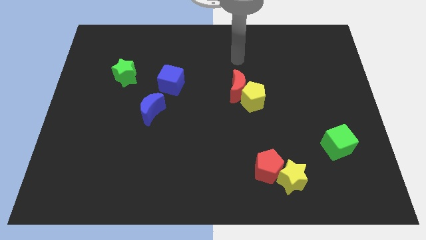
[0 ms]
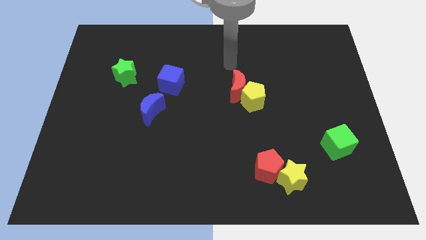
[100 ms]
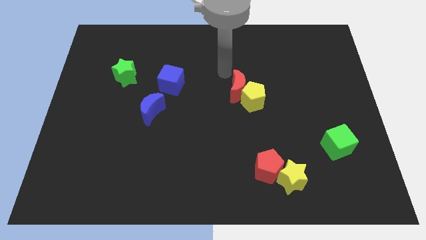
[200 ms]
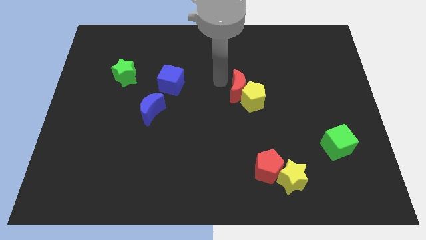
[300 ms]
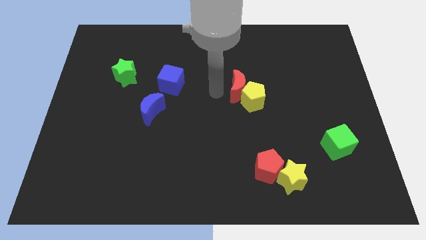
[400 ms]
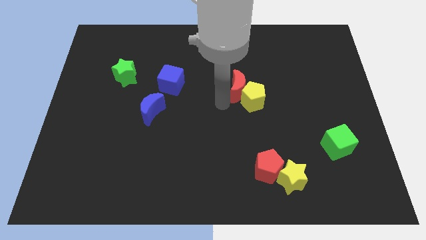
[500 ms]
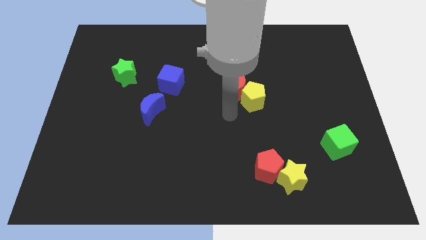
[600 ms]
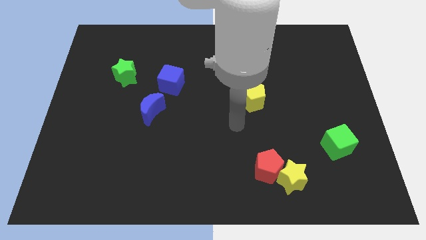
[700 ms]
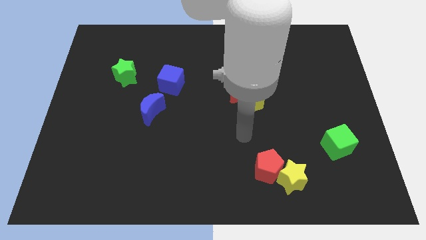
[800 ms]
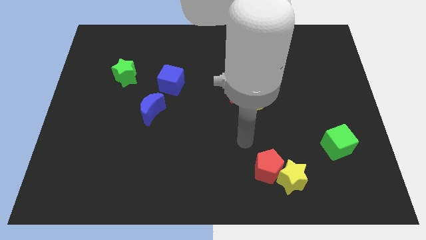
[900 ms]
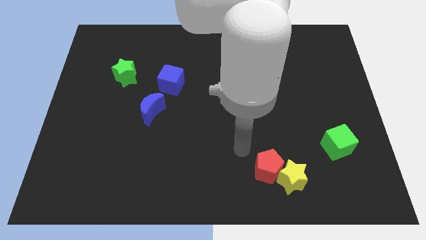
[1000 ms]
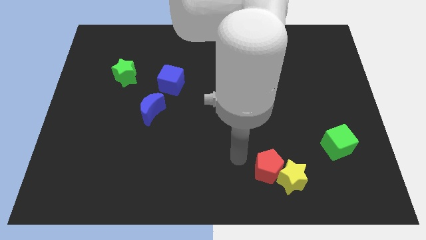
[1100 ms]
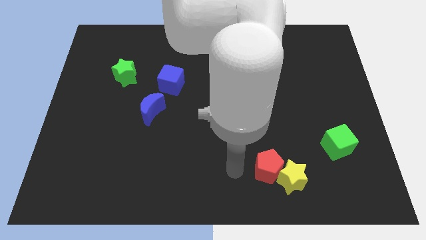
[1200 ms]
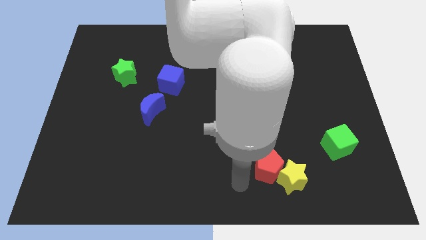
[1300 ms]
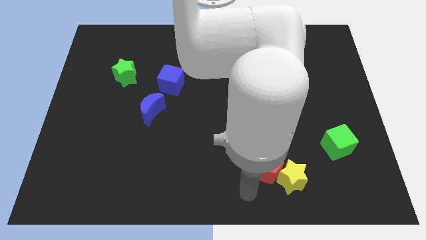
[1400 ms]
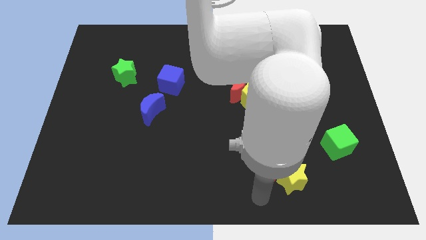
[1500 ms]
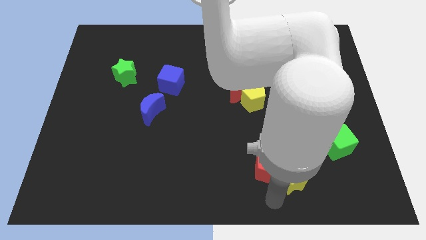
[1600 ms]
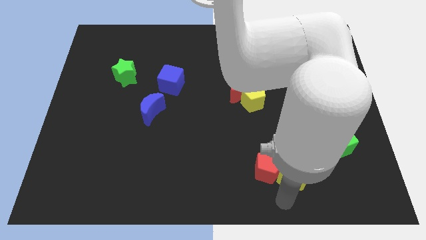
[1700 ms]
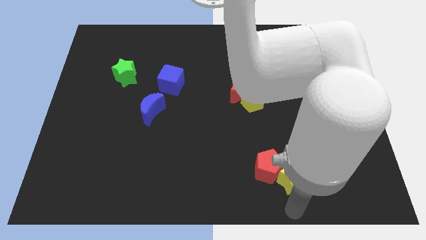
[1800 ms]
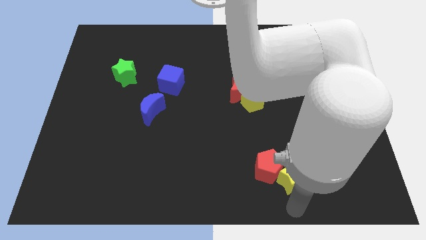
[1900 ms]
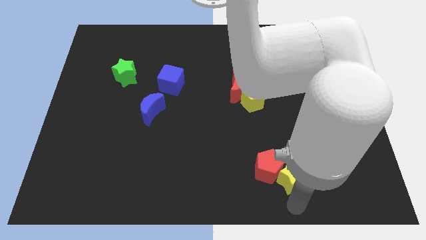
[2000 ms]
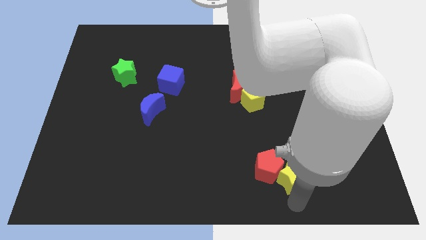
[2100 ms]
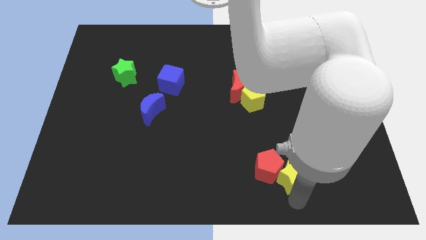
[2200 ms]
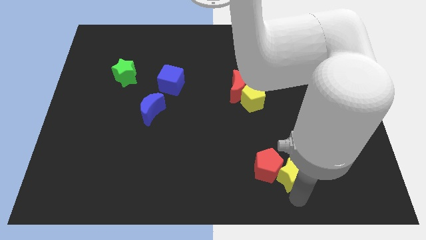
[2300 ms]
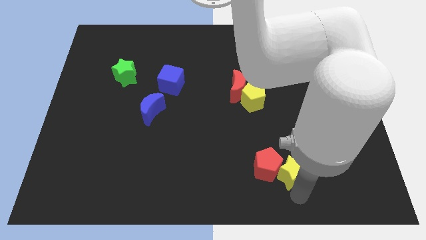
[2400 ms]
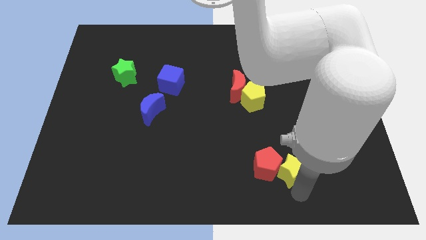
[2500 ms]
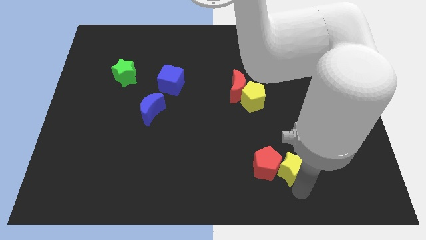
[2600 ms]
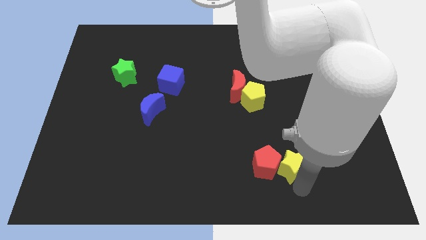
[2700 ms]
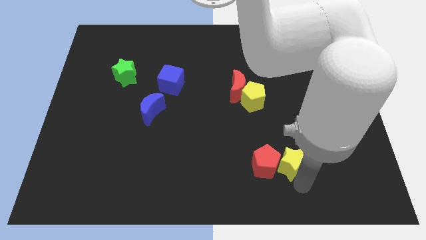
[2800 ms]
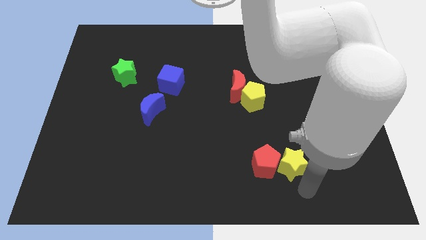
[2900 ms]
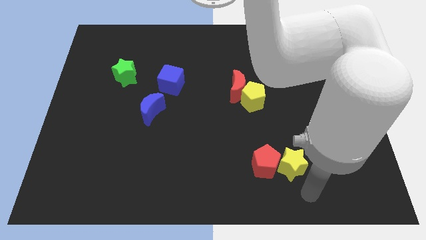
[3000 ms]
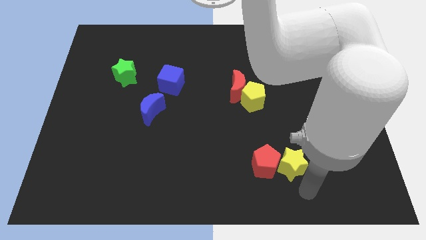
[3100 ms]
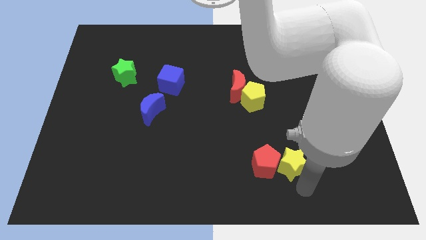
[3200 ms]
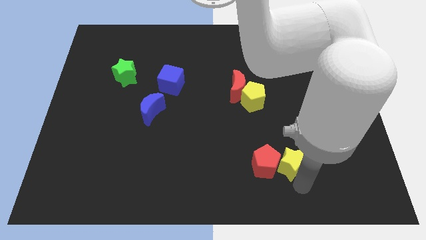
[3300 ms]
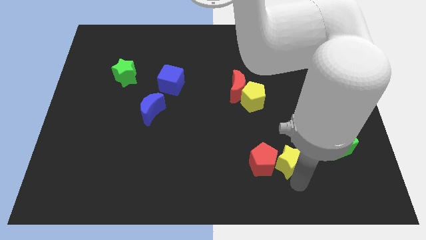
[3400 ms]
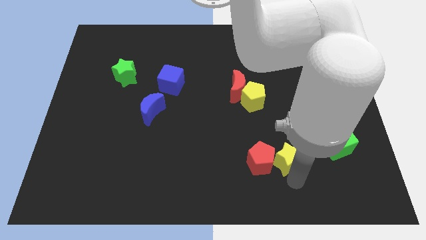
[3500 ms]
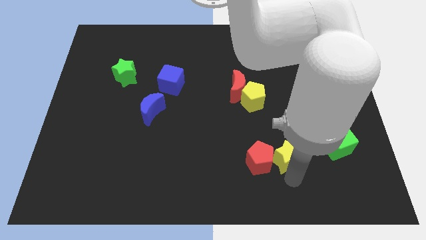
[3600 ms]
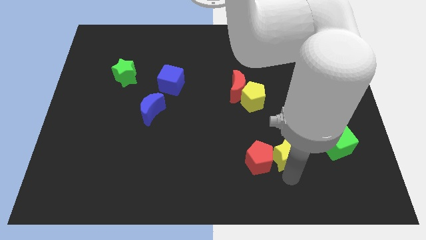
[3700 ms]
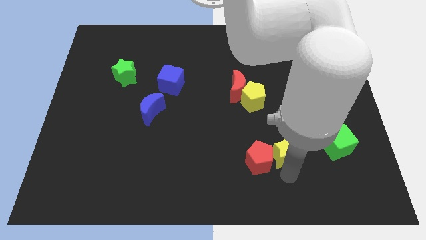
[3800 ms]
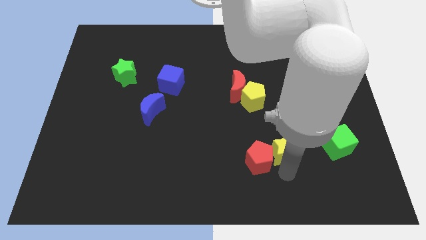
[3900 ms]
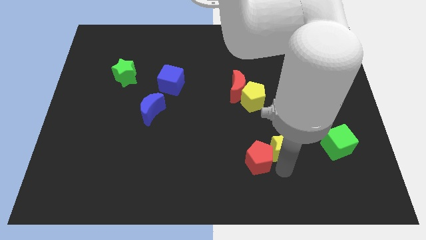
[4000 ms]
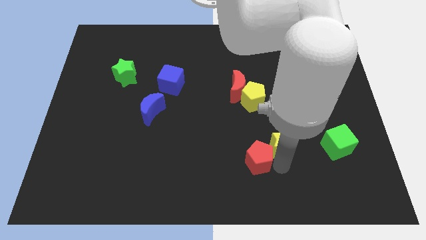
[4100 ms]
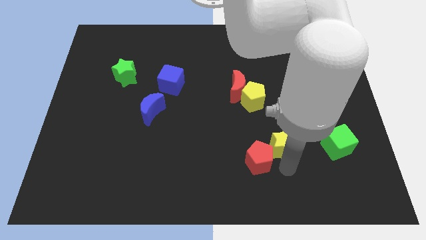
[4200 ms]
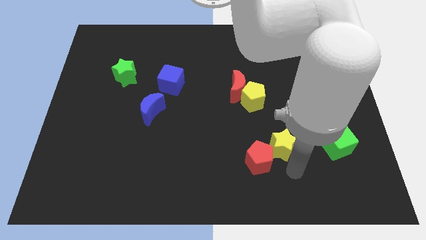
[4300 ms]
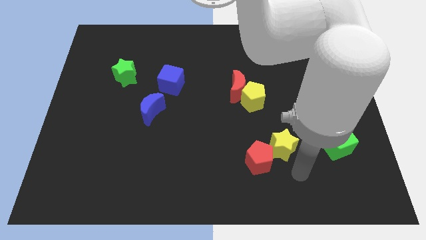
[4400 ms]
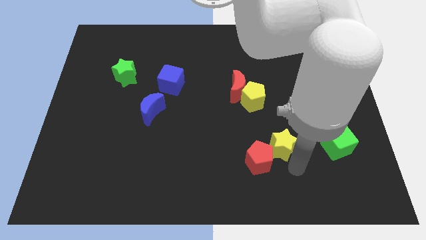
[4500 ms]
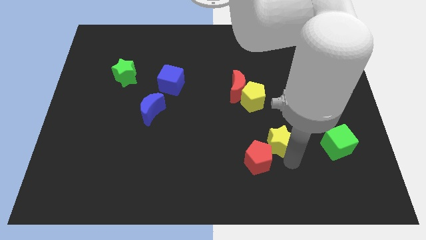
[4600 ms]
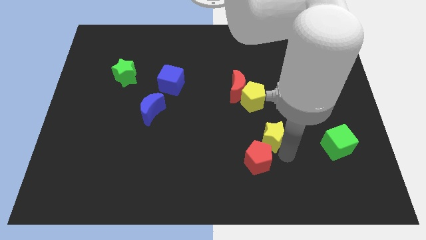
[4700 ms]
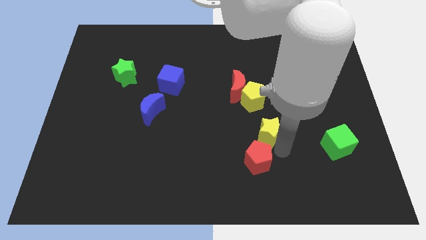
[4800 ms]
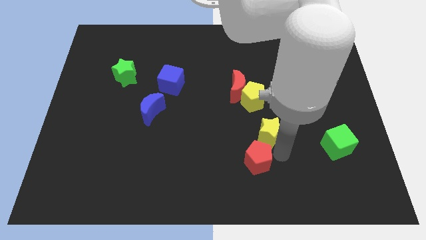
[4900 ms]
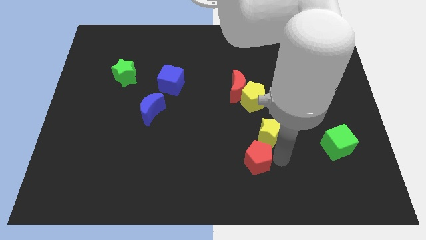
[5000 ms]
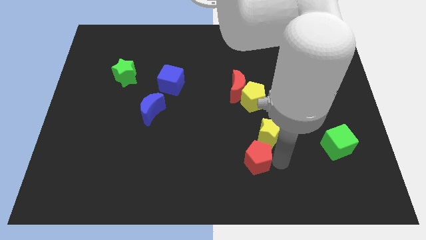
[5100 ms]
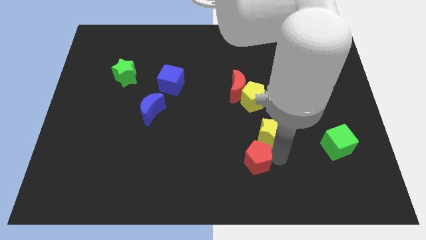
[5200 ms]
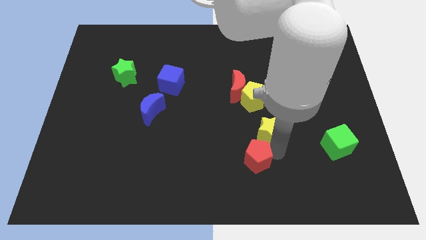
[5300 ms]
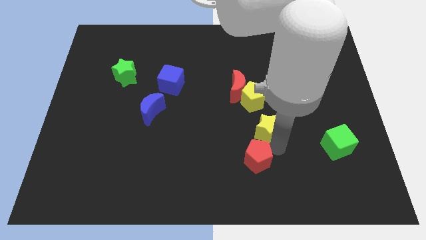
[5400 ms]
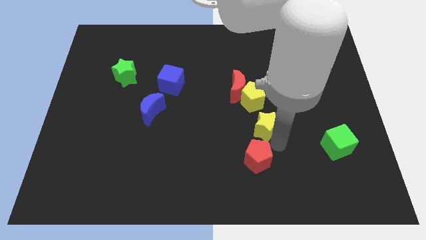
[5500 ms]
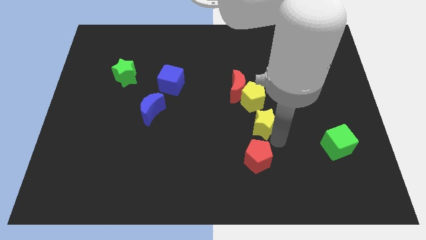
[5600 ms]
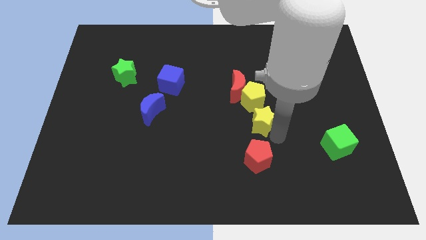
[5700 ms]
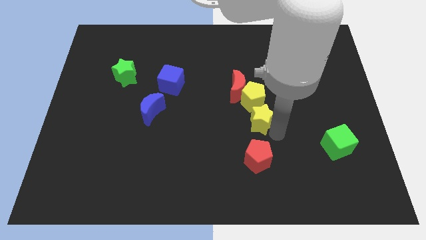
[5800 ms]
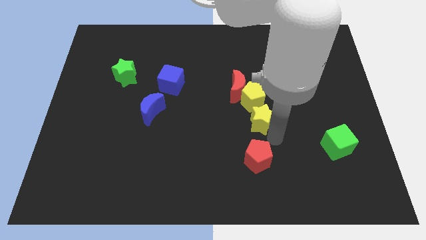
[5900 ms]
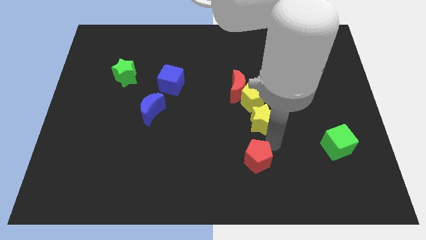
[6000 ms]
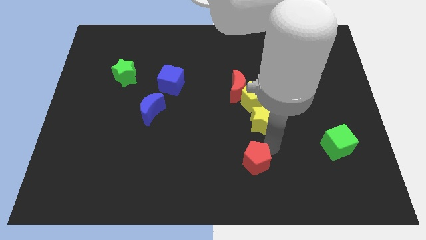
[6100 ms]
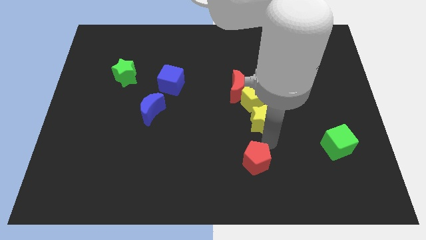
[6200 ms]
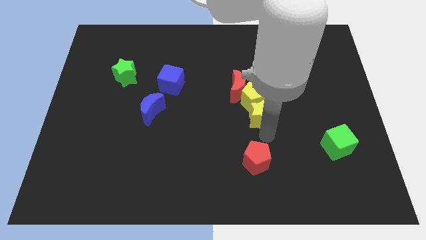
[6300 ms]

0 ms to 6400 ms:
push the yellow star close to the yellow pentagon

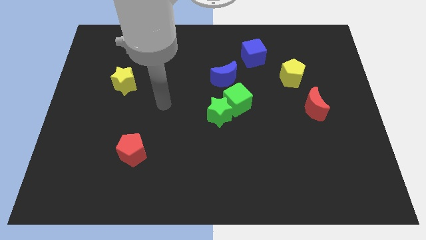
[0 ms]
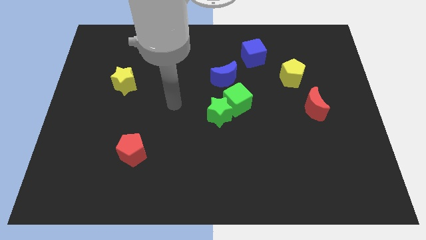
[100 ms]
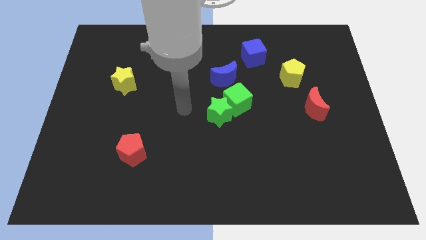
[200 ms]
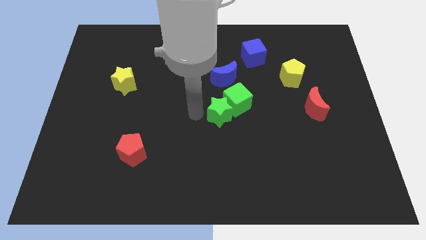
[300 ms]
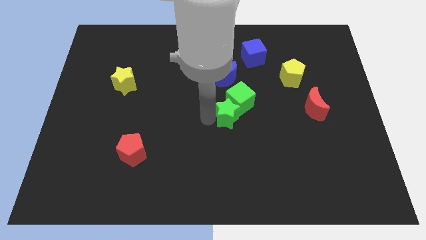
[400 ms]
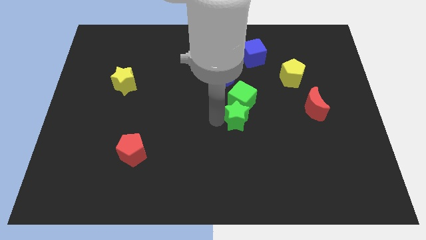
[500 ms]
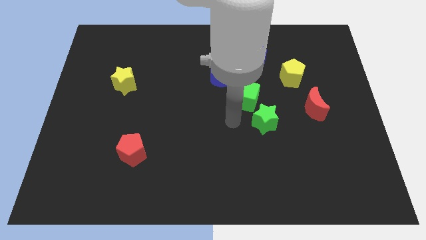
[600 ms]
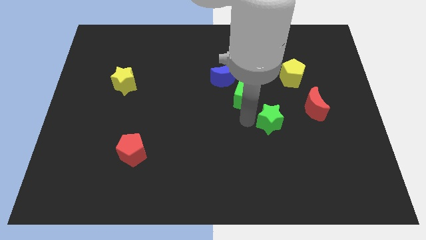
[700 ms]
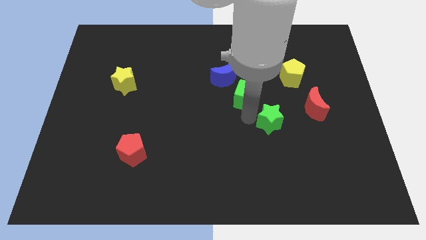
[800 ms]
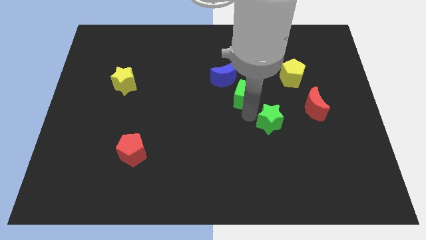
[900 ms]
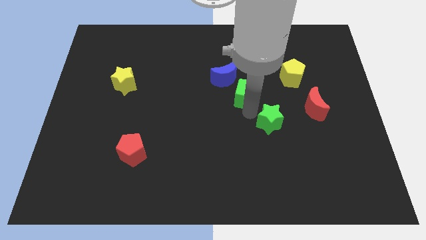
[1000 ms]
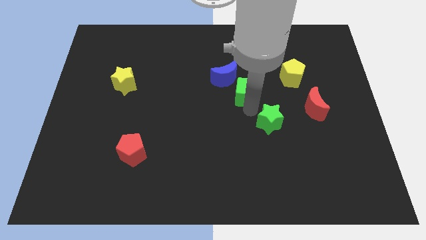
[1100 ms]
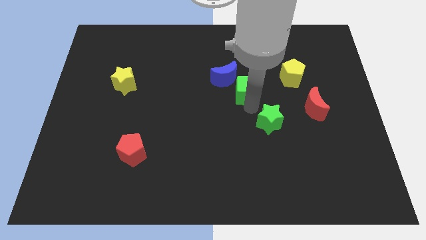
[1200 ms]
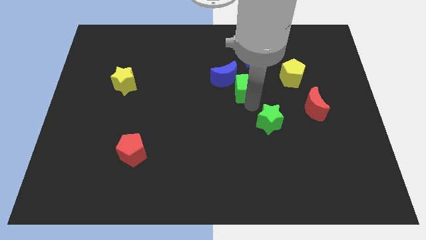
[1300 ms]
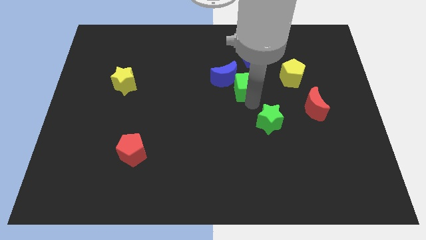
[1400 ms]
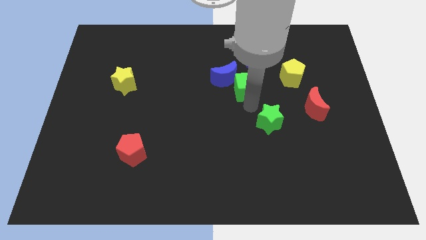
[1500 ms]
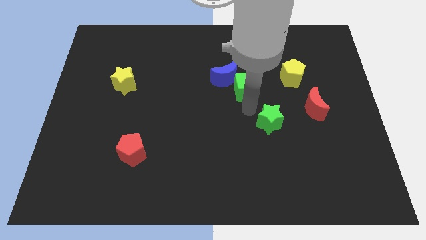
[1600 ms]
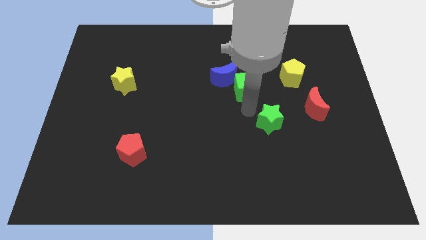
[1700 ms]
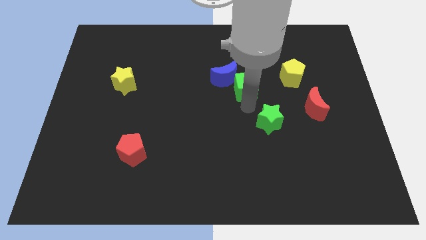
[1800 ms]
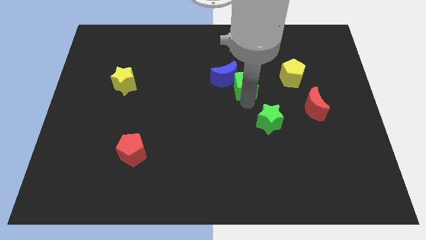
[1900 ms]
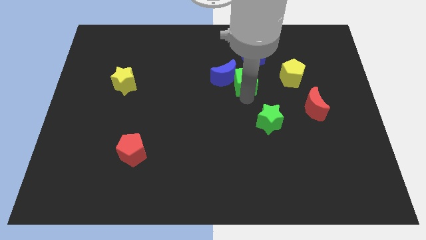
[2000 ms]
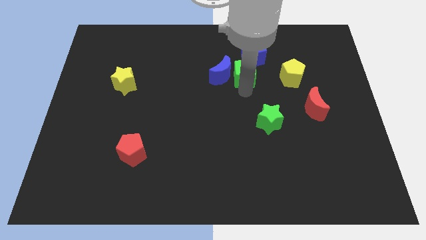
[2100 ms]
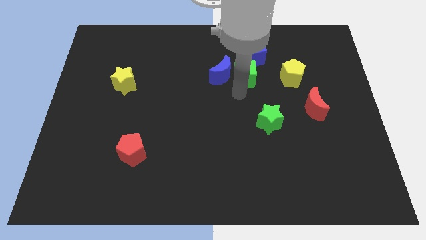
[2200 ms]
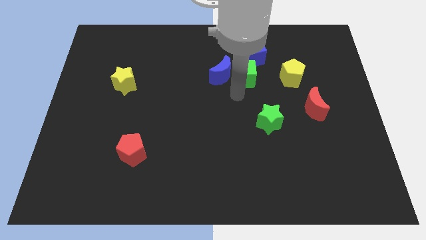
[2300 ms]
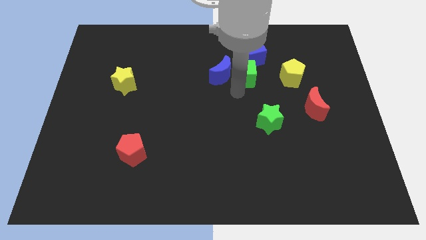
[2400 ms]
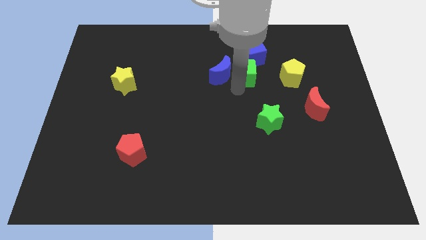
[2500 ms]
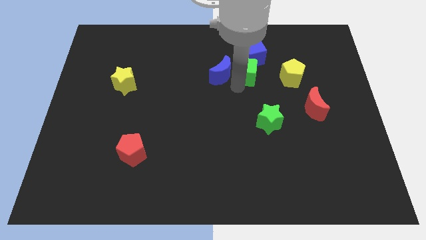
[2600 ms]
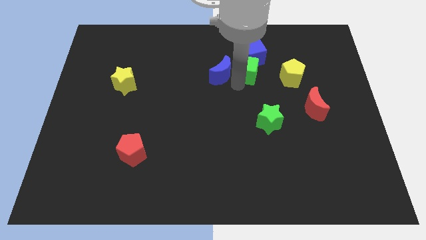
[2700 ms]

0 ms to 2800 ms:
move the green cube to the blue cube
